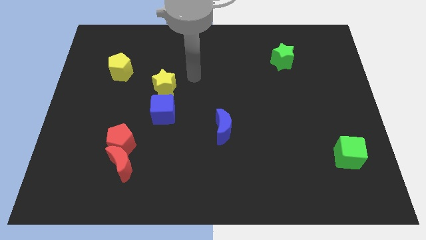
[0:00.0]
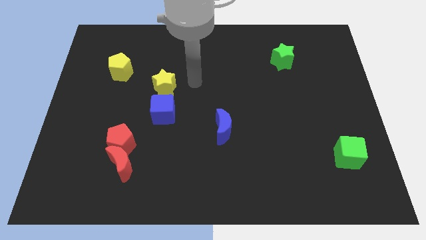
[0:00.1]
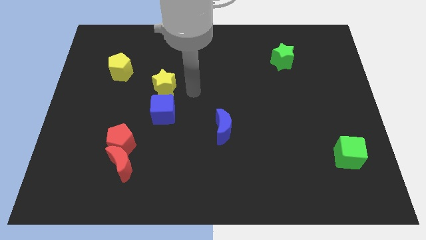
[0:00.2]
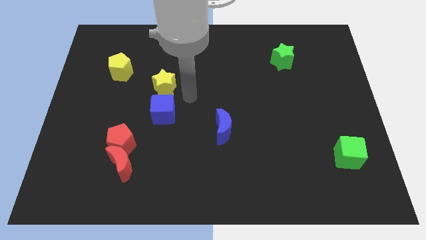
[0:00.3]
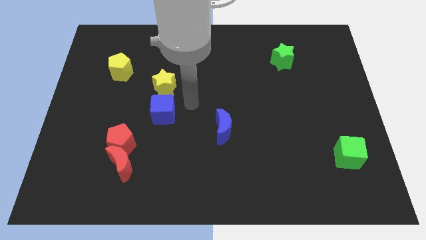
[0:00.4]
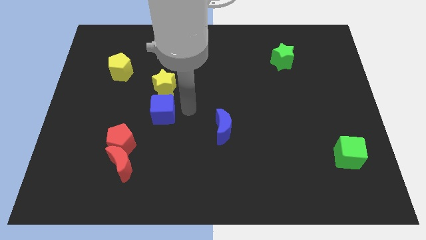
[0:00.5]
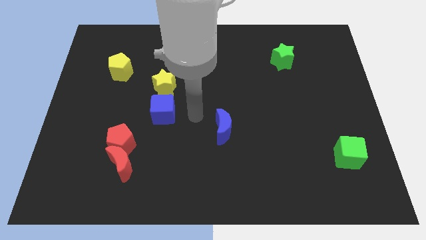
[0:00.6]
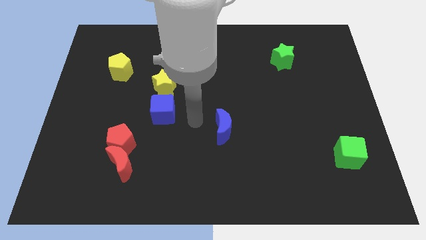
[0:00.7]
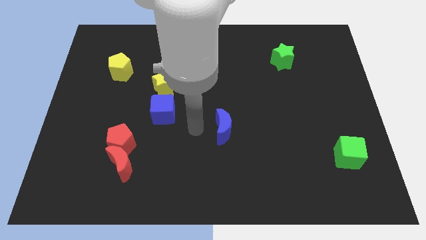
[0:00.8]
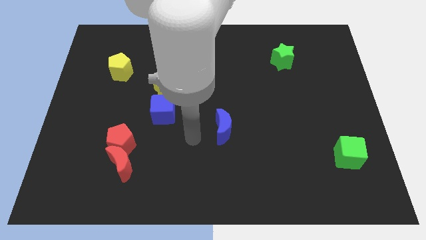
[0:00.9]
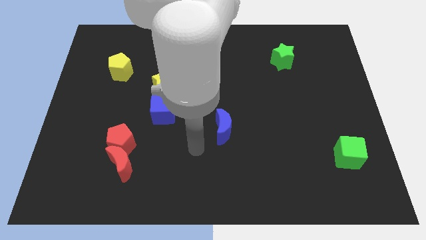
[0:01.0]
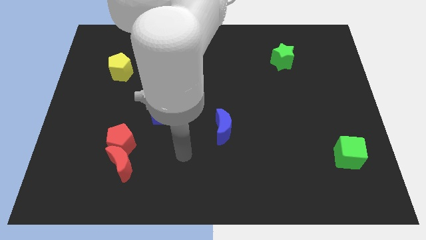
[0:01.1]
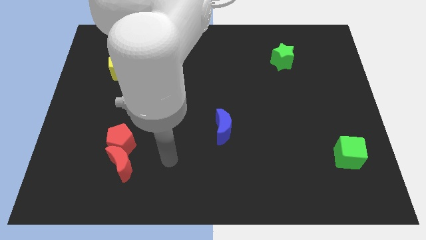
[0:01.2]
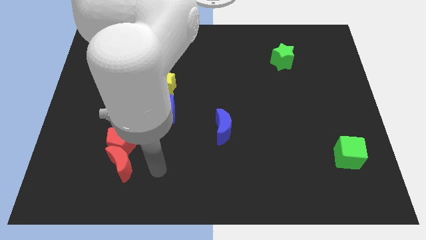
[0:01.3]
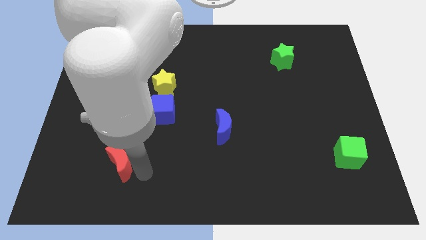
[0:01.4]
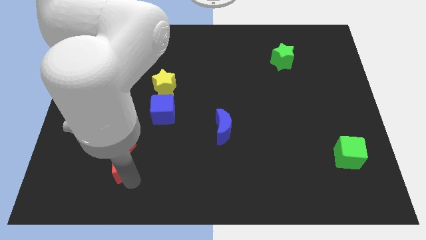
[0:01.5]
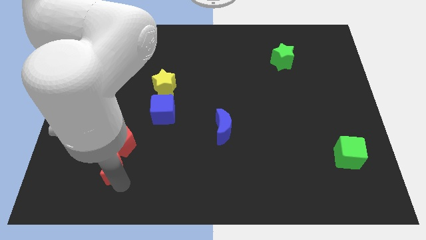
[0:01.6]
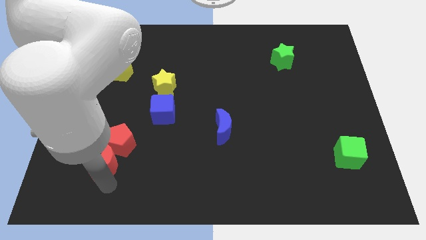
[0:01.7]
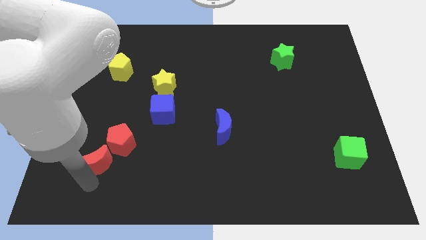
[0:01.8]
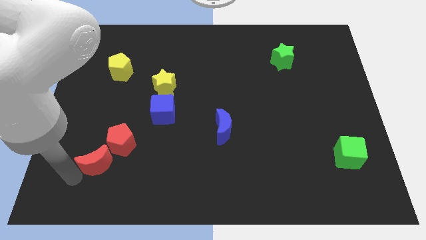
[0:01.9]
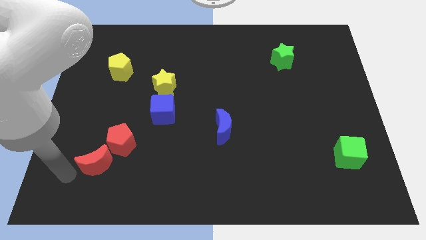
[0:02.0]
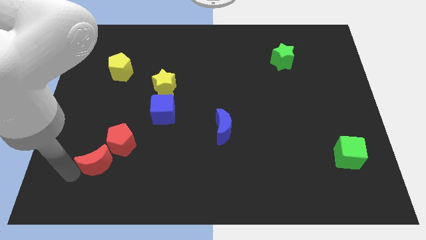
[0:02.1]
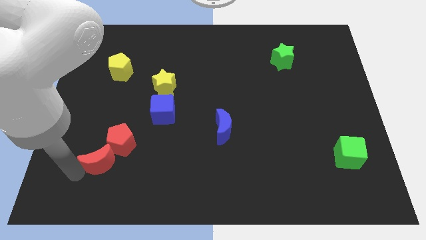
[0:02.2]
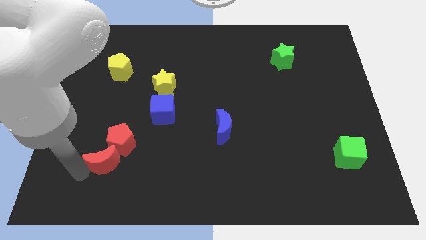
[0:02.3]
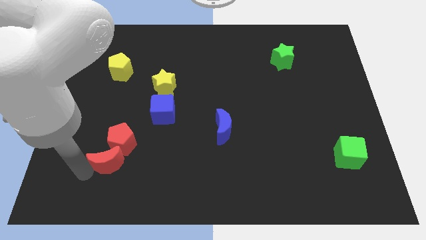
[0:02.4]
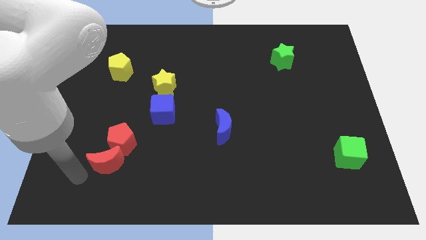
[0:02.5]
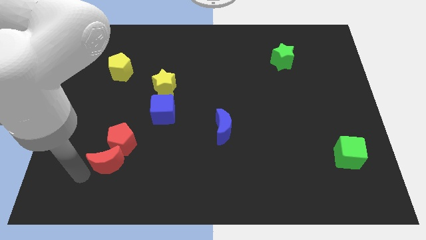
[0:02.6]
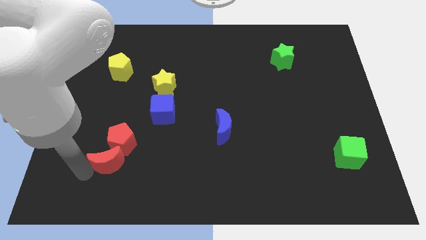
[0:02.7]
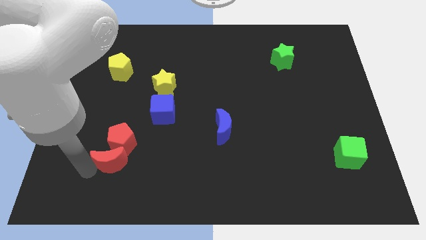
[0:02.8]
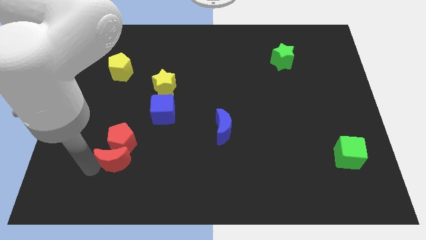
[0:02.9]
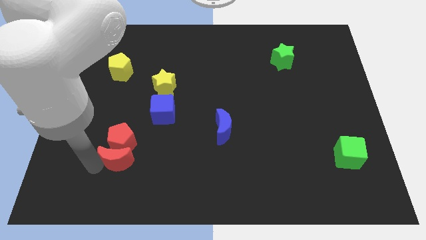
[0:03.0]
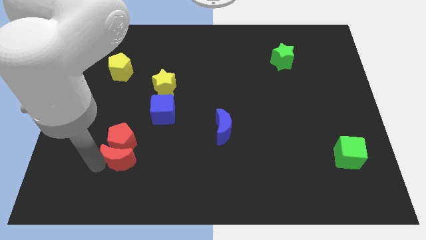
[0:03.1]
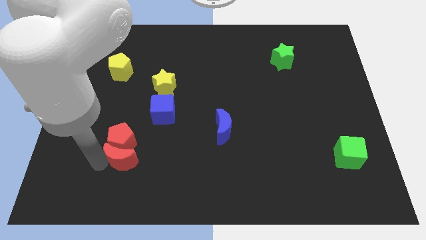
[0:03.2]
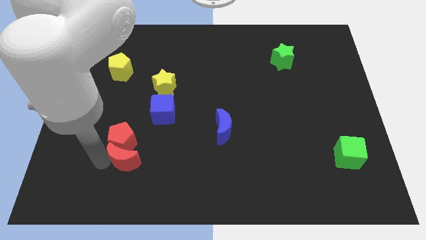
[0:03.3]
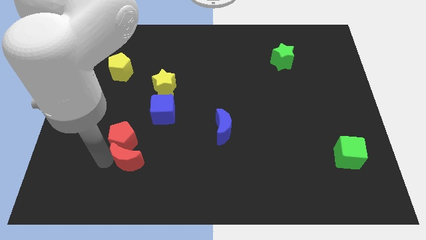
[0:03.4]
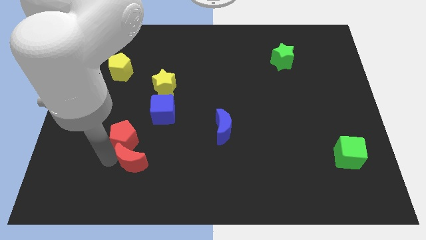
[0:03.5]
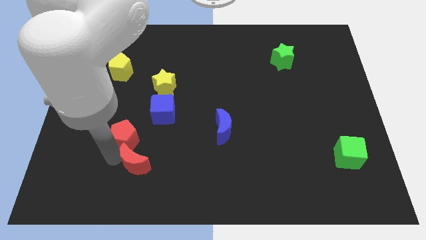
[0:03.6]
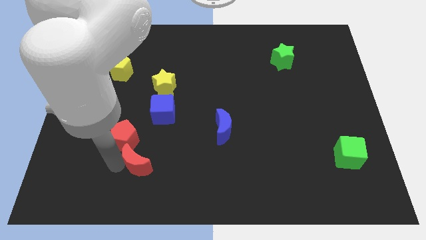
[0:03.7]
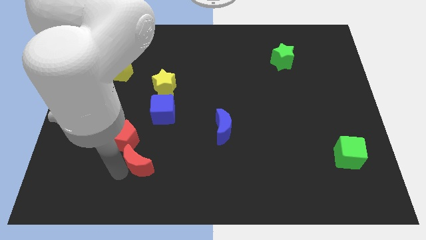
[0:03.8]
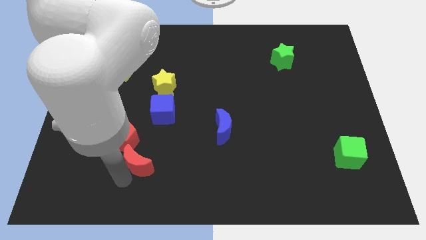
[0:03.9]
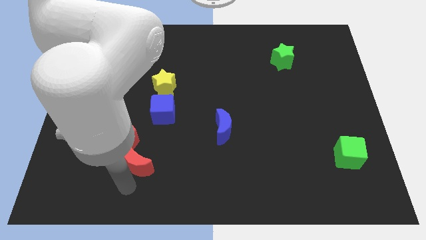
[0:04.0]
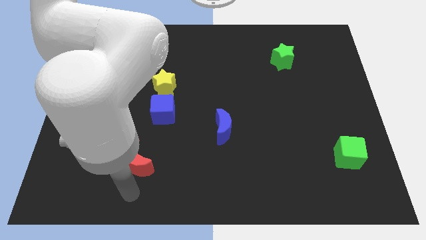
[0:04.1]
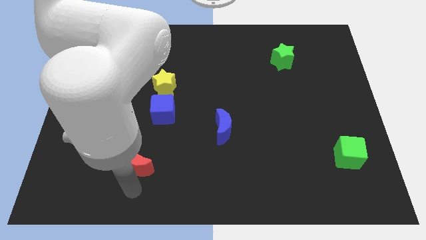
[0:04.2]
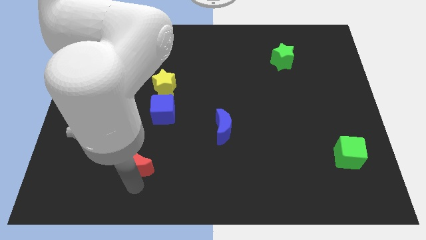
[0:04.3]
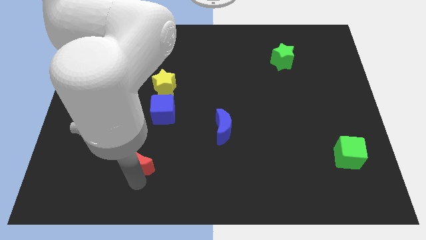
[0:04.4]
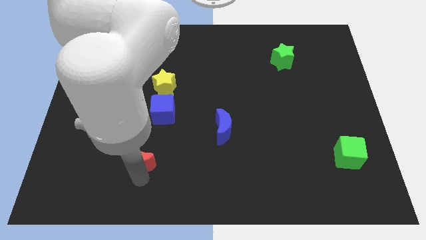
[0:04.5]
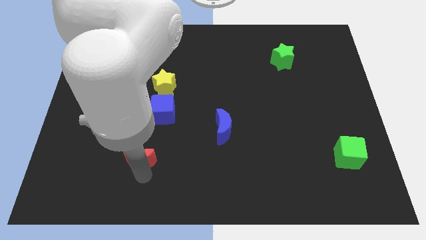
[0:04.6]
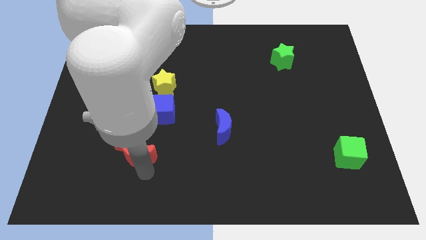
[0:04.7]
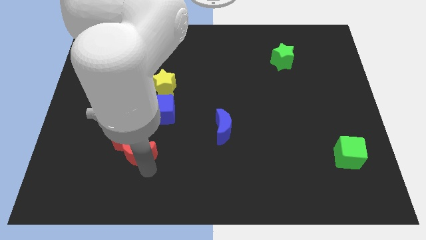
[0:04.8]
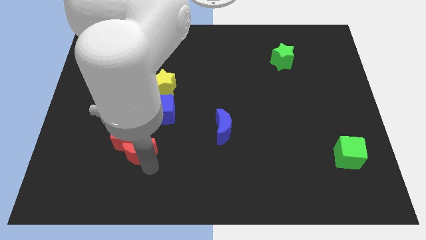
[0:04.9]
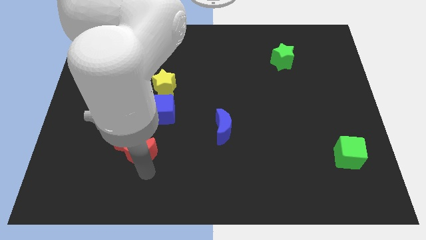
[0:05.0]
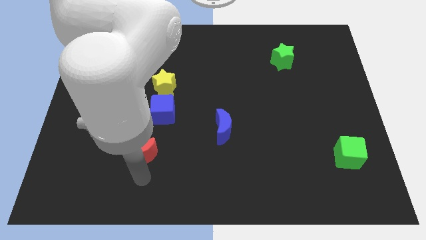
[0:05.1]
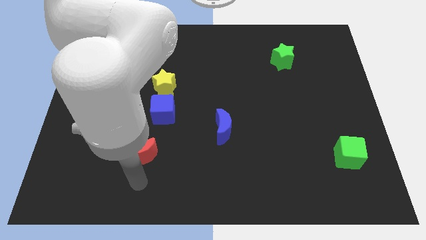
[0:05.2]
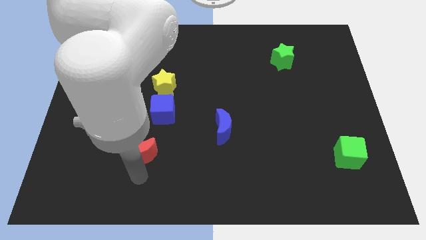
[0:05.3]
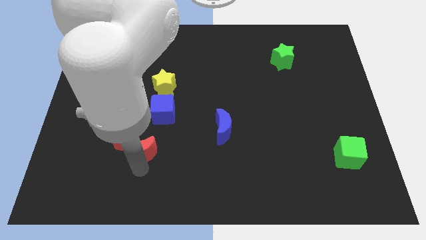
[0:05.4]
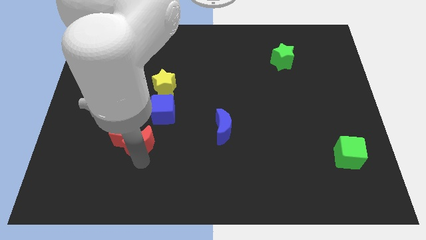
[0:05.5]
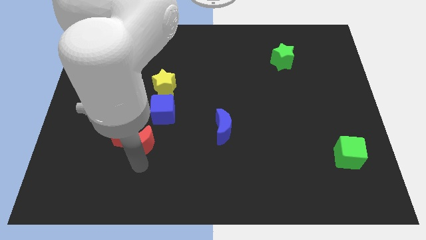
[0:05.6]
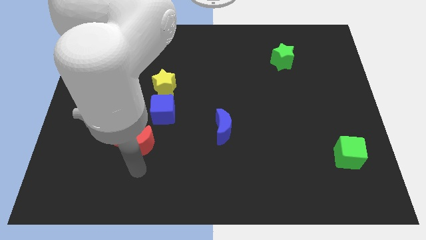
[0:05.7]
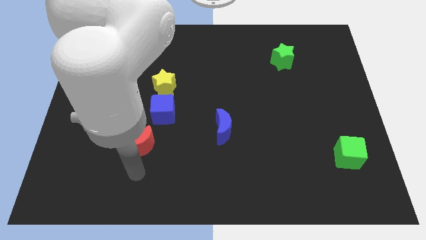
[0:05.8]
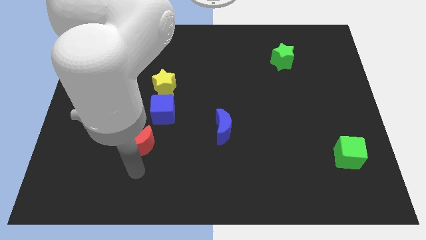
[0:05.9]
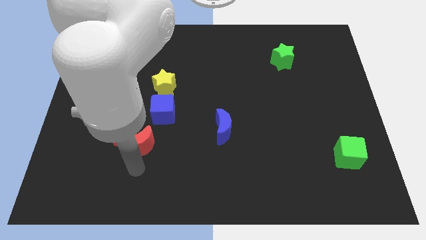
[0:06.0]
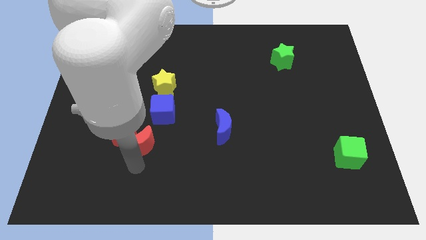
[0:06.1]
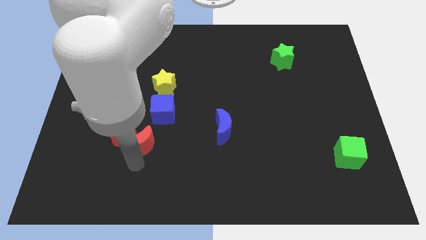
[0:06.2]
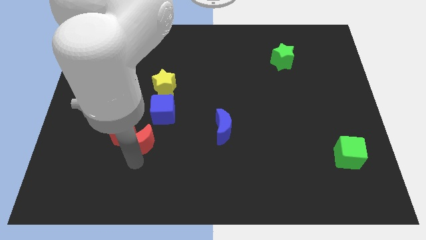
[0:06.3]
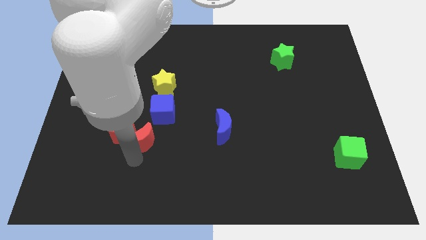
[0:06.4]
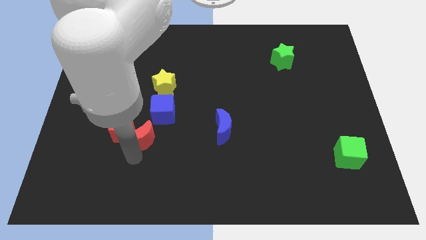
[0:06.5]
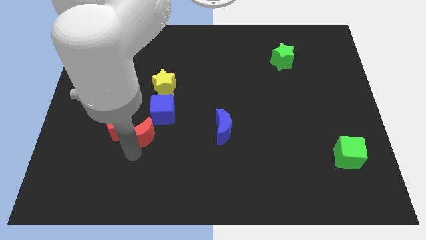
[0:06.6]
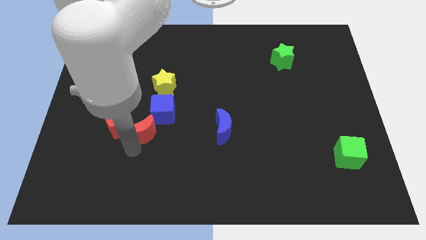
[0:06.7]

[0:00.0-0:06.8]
slightly push the red moon upwards

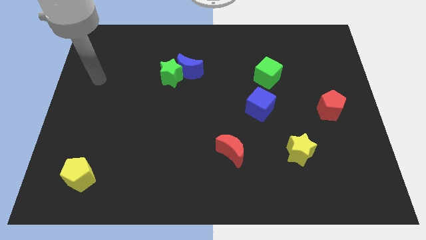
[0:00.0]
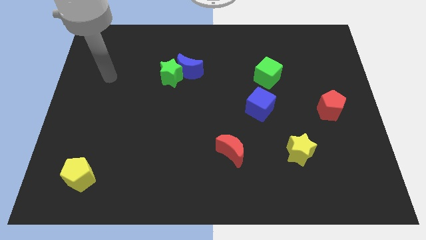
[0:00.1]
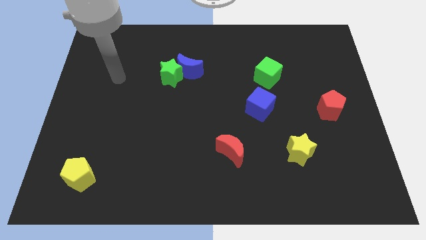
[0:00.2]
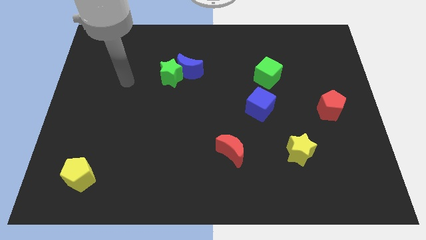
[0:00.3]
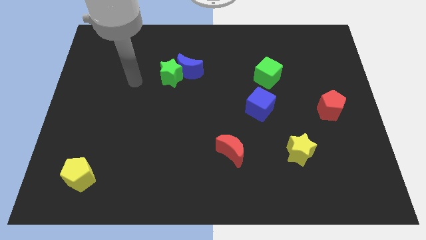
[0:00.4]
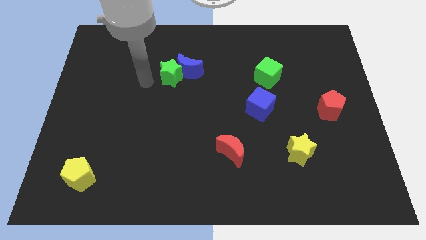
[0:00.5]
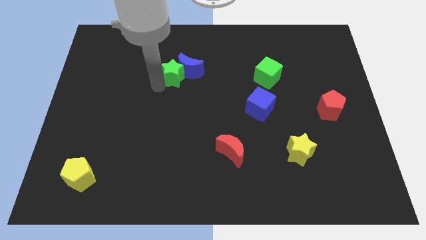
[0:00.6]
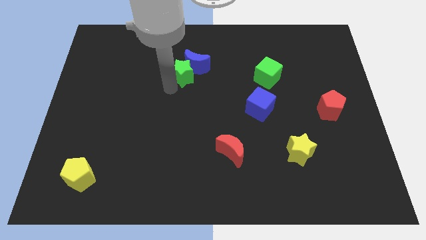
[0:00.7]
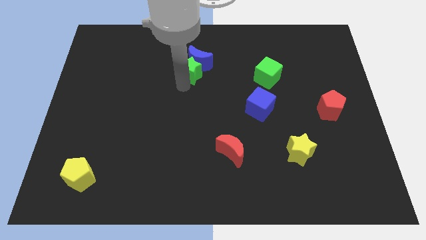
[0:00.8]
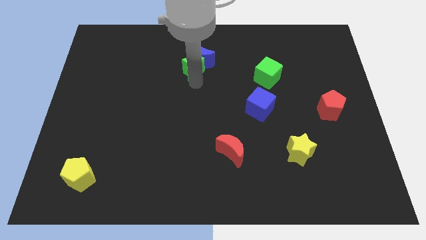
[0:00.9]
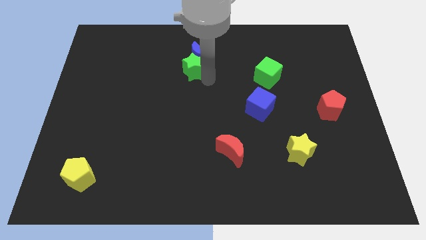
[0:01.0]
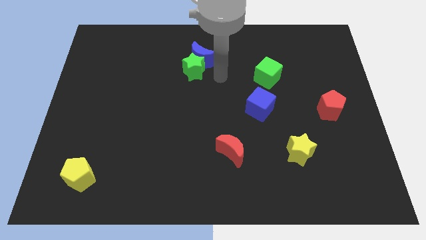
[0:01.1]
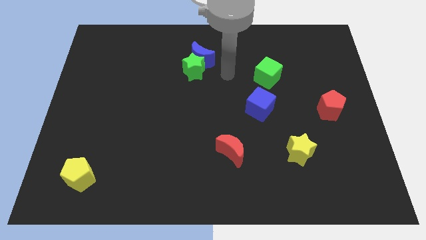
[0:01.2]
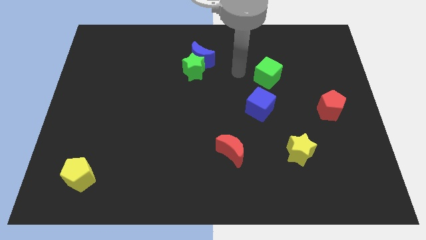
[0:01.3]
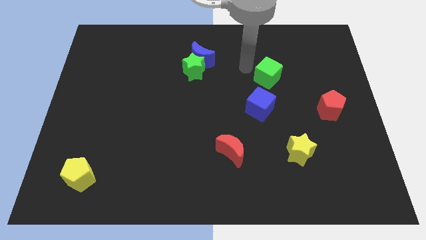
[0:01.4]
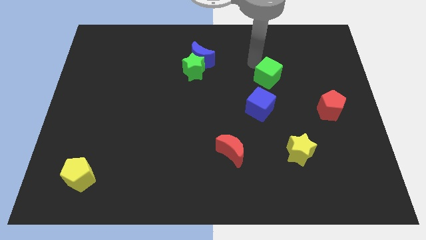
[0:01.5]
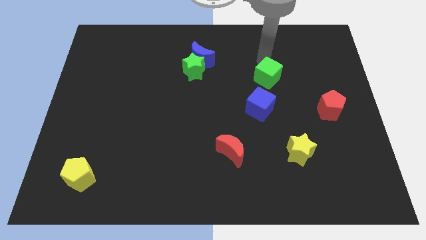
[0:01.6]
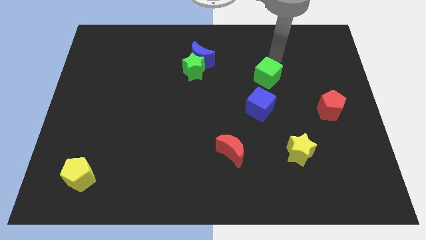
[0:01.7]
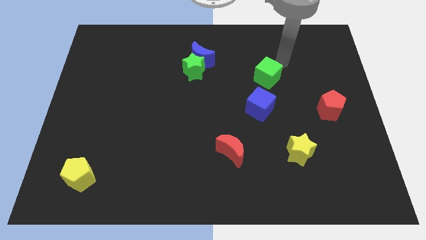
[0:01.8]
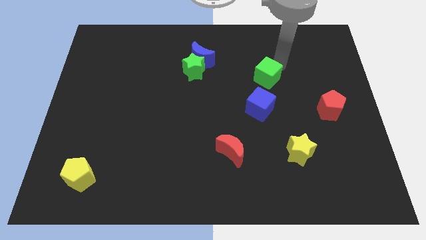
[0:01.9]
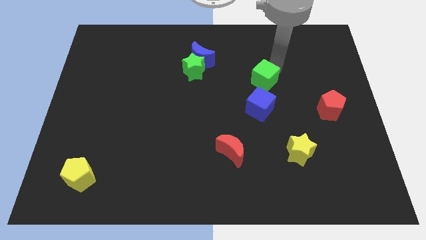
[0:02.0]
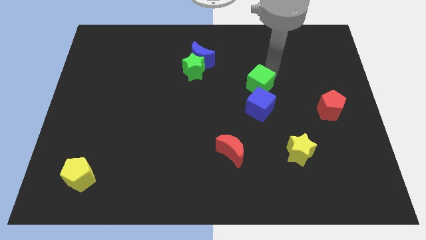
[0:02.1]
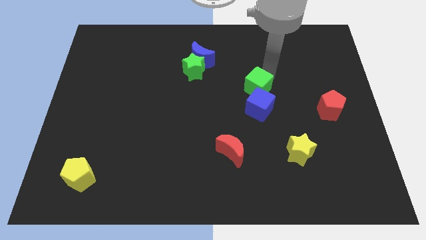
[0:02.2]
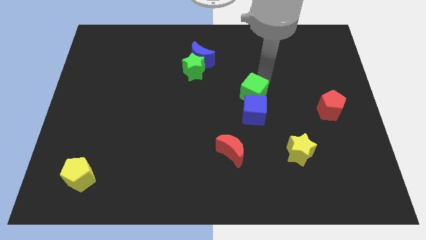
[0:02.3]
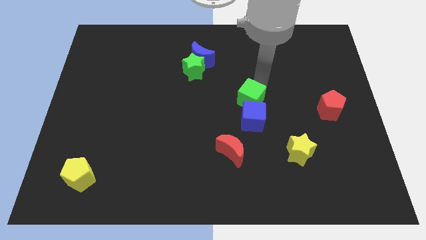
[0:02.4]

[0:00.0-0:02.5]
slide the green cube a bit diagonally down and left
